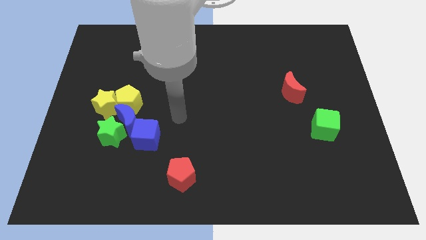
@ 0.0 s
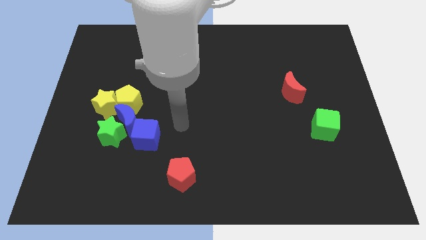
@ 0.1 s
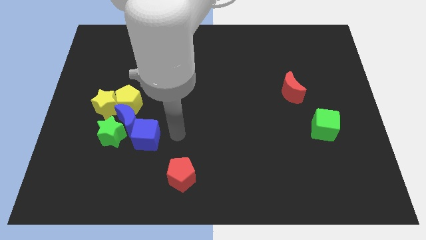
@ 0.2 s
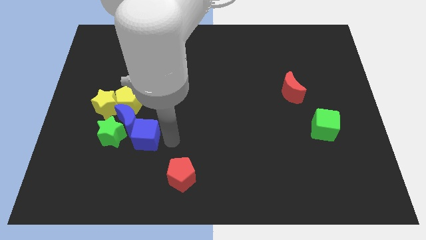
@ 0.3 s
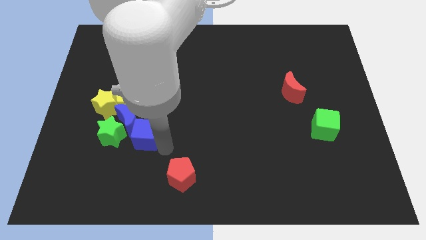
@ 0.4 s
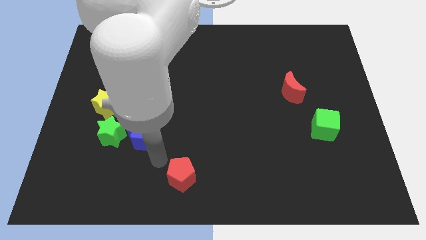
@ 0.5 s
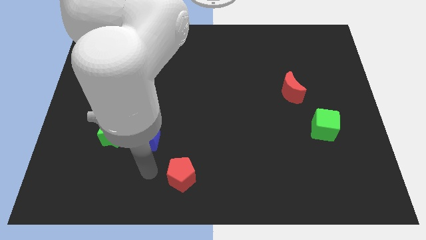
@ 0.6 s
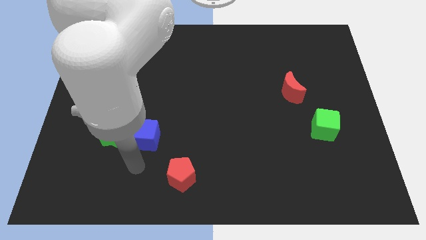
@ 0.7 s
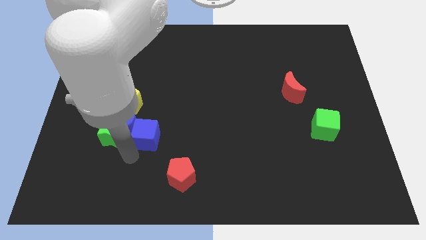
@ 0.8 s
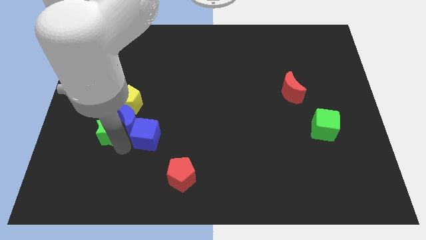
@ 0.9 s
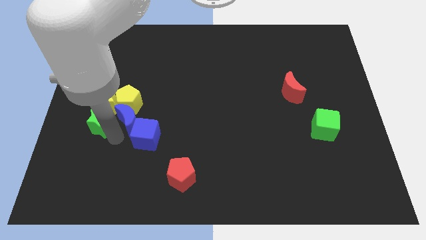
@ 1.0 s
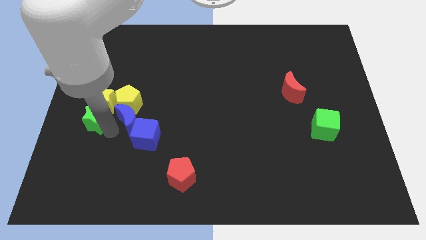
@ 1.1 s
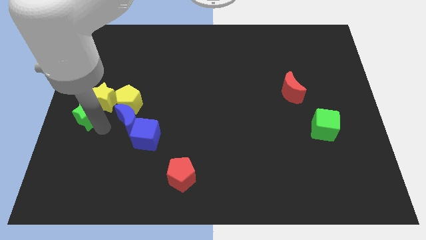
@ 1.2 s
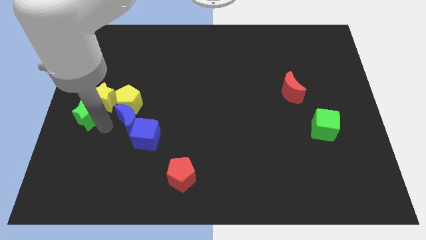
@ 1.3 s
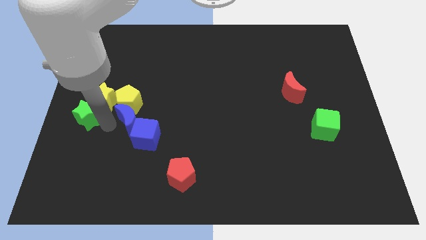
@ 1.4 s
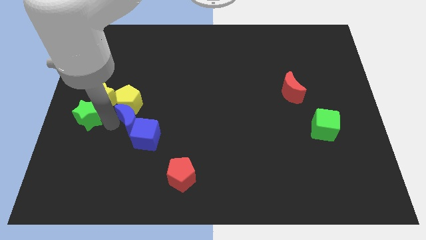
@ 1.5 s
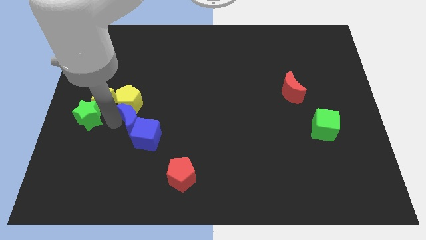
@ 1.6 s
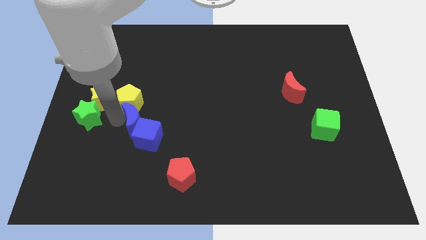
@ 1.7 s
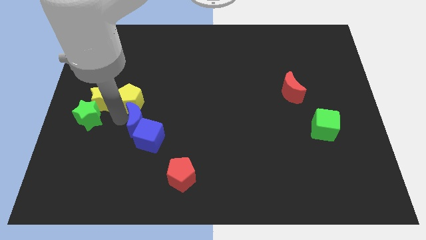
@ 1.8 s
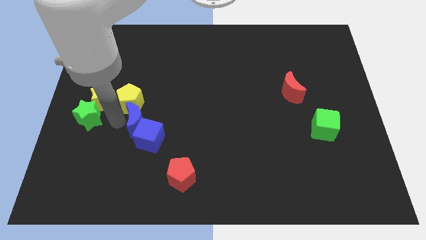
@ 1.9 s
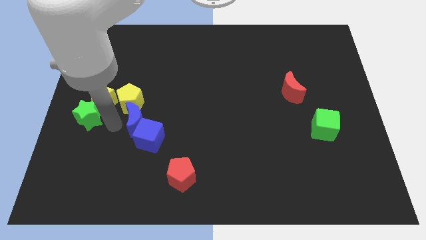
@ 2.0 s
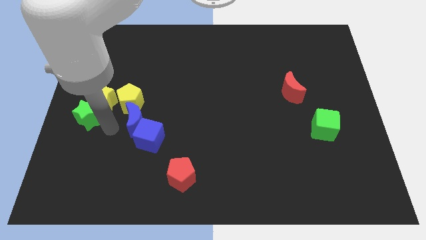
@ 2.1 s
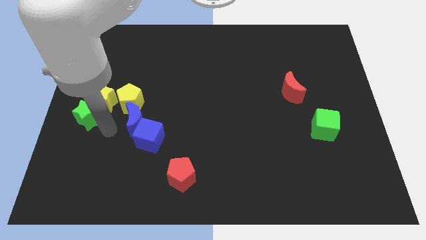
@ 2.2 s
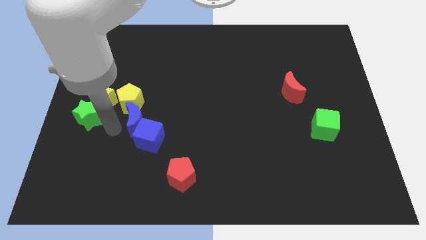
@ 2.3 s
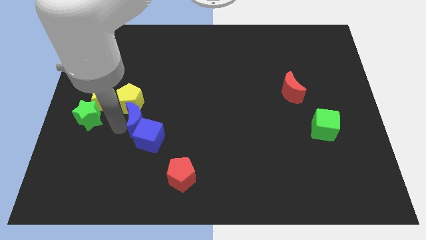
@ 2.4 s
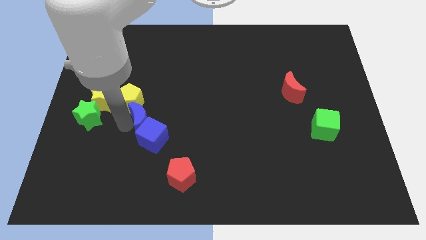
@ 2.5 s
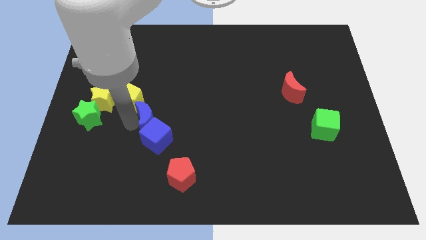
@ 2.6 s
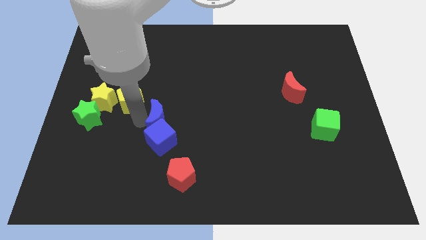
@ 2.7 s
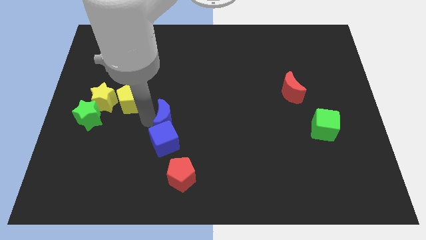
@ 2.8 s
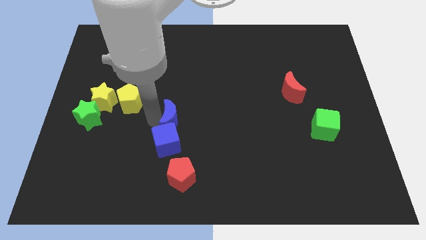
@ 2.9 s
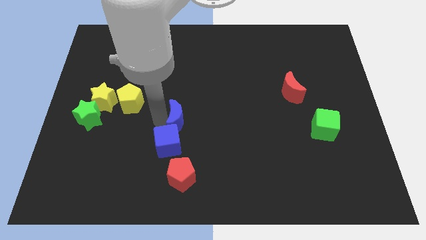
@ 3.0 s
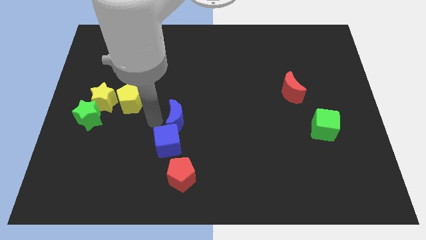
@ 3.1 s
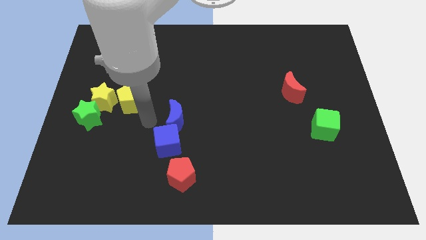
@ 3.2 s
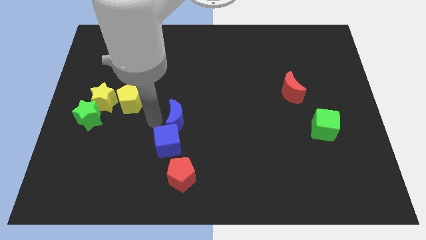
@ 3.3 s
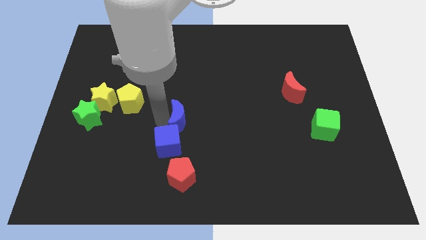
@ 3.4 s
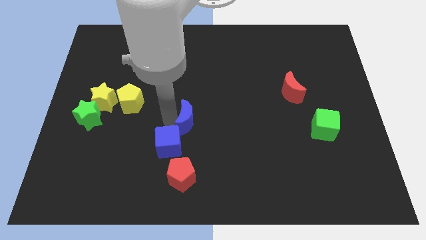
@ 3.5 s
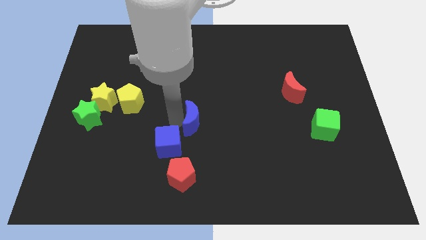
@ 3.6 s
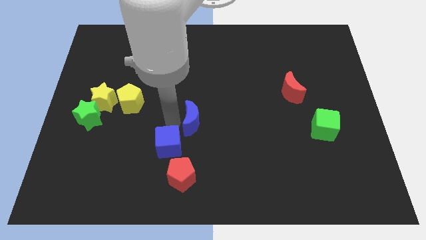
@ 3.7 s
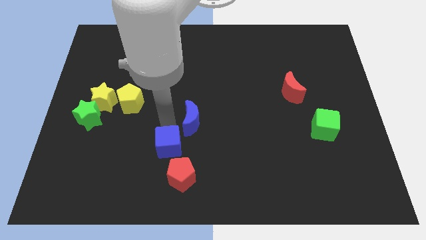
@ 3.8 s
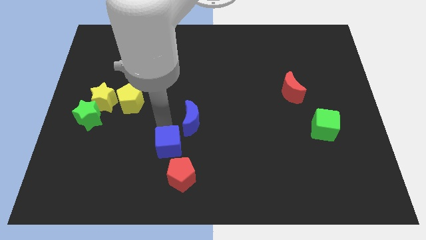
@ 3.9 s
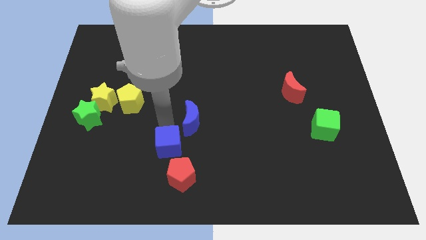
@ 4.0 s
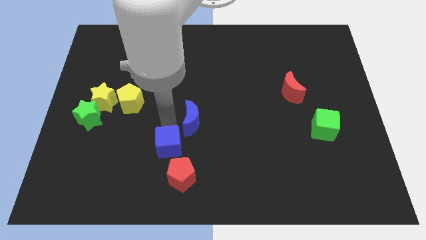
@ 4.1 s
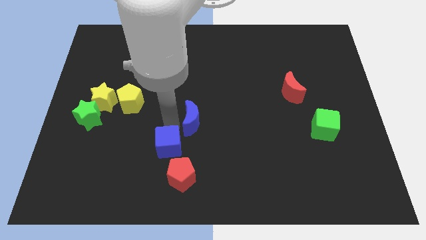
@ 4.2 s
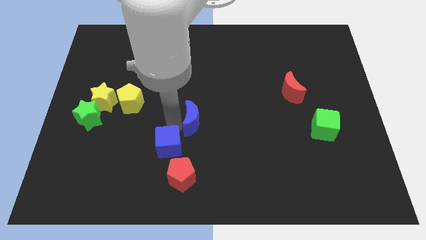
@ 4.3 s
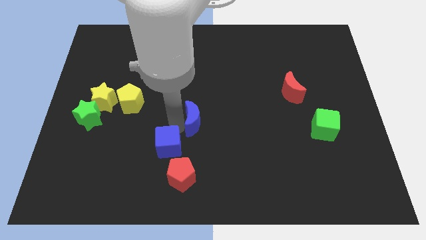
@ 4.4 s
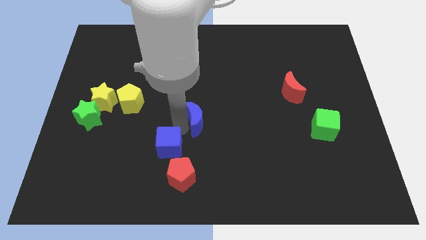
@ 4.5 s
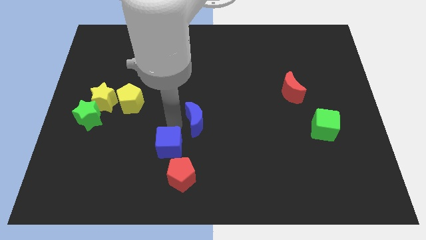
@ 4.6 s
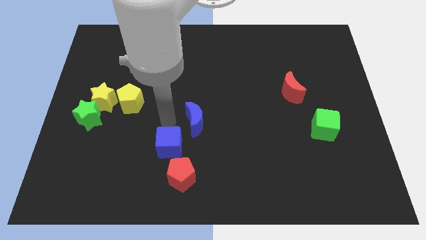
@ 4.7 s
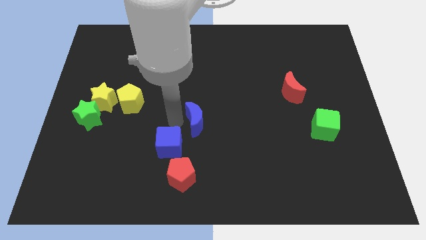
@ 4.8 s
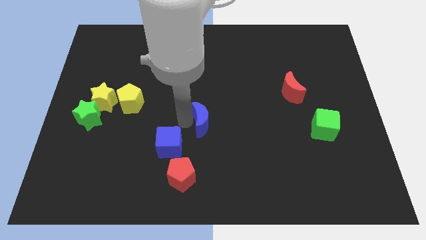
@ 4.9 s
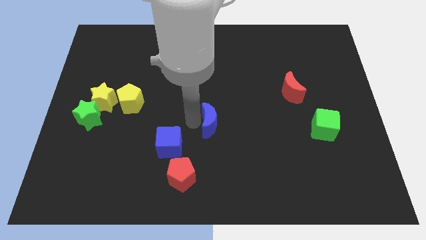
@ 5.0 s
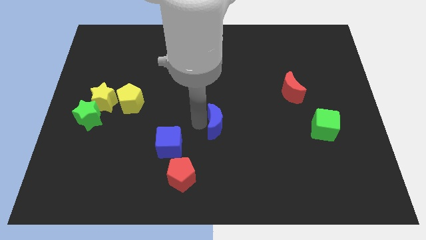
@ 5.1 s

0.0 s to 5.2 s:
move the blue moon right

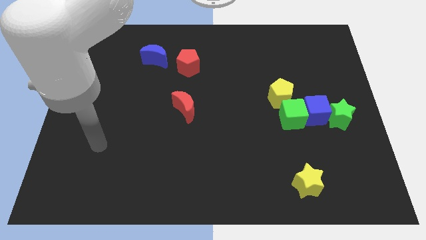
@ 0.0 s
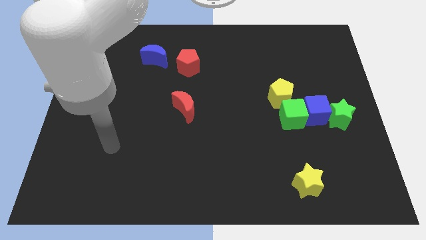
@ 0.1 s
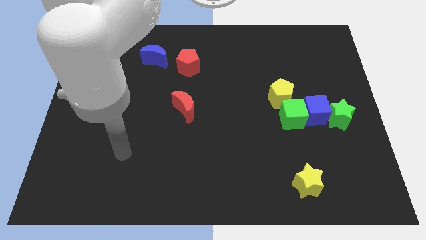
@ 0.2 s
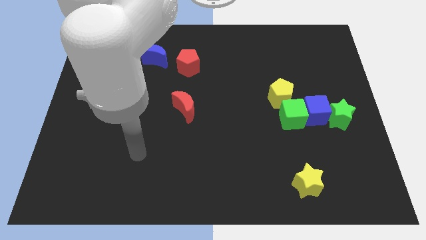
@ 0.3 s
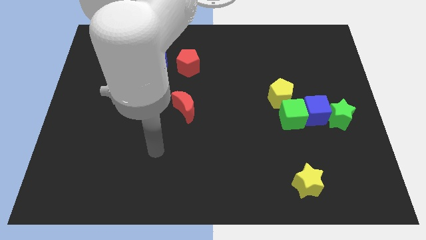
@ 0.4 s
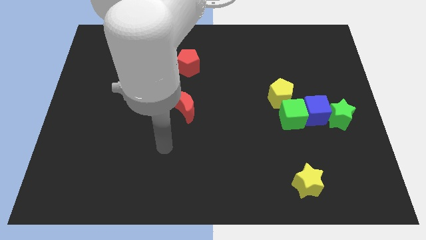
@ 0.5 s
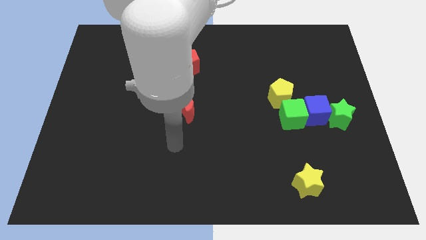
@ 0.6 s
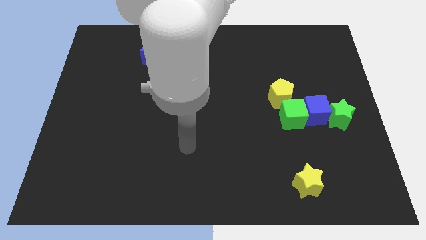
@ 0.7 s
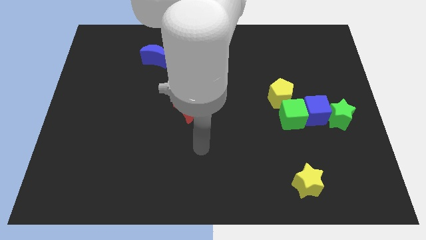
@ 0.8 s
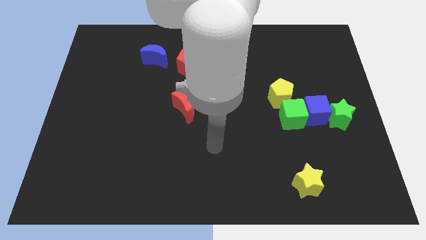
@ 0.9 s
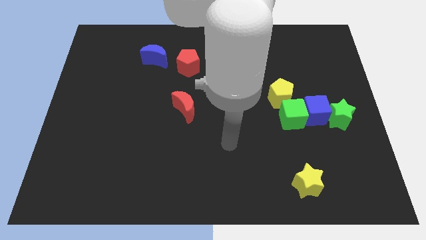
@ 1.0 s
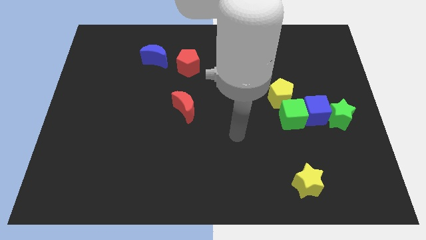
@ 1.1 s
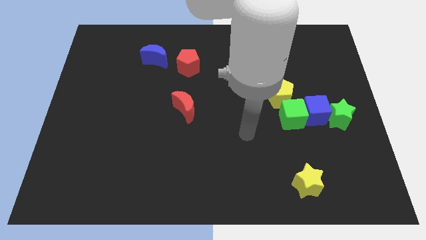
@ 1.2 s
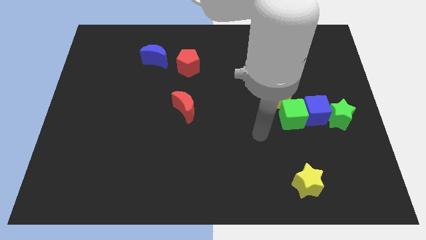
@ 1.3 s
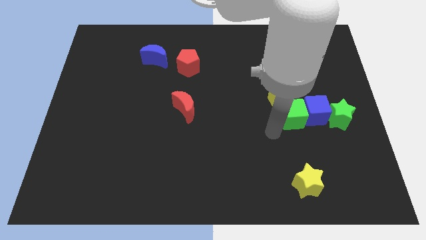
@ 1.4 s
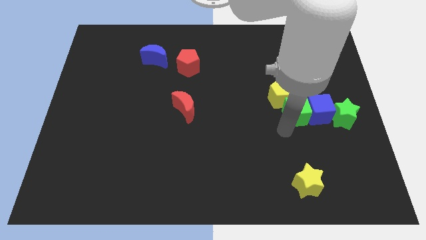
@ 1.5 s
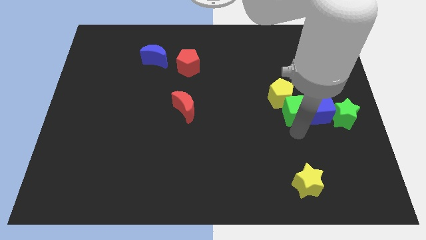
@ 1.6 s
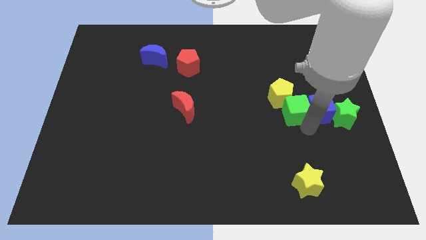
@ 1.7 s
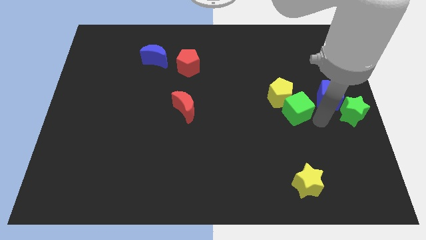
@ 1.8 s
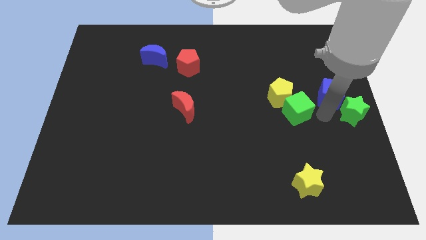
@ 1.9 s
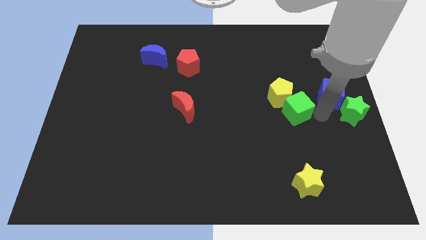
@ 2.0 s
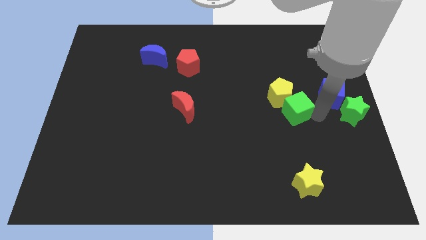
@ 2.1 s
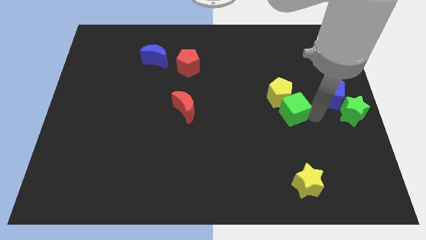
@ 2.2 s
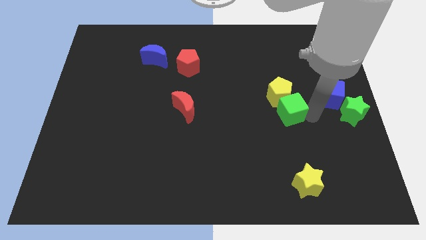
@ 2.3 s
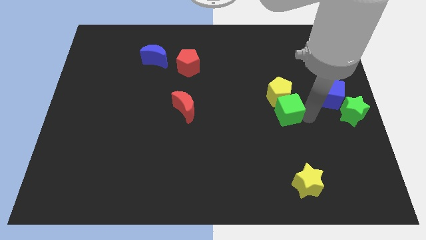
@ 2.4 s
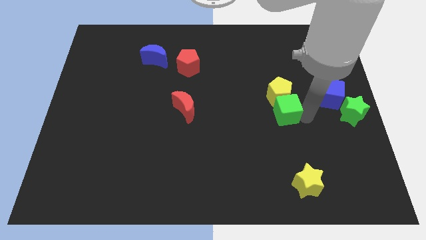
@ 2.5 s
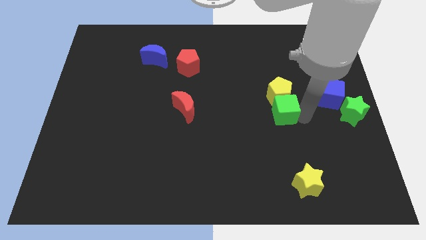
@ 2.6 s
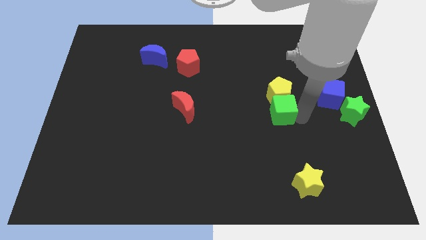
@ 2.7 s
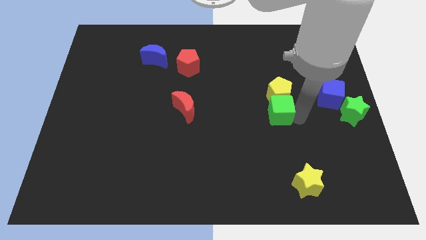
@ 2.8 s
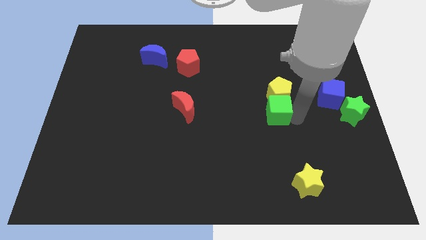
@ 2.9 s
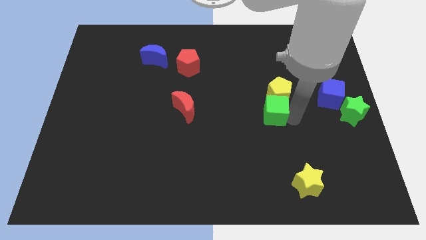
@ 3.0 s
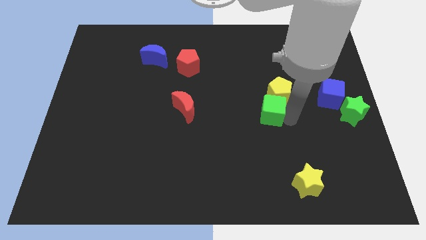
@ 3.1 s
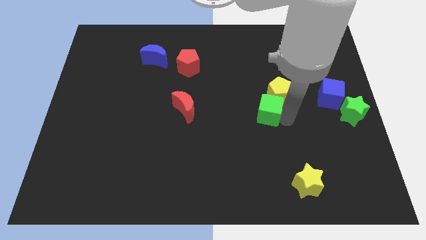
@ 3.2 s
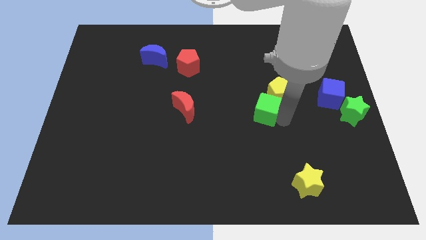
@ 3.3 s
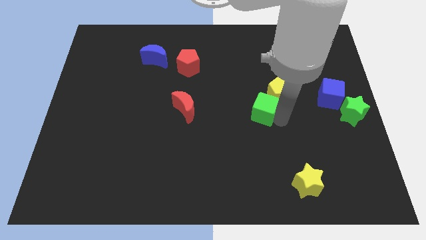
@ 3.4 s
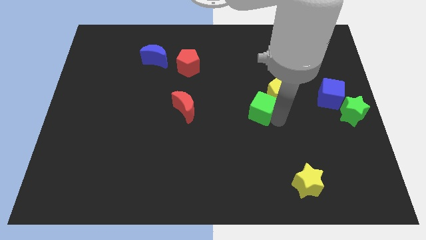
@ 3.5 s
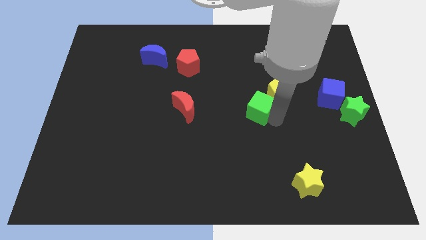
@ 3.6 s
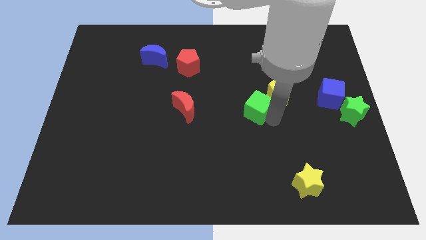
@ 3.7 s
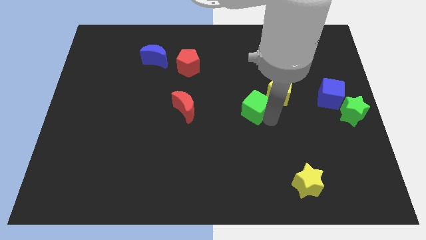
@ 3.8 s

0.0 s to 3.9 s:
push the green cube upwards and then to the left a bit
